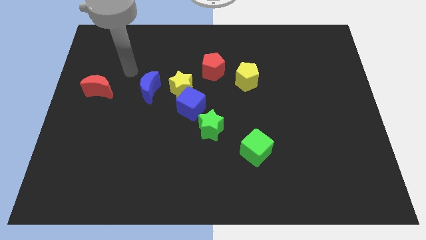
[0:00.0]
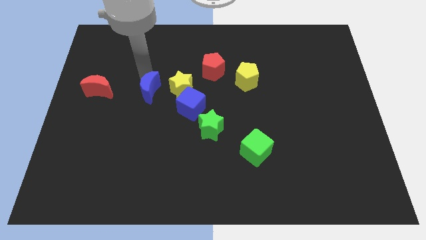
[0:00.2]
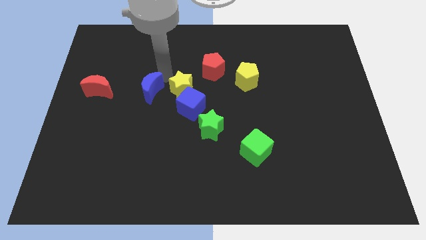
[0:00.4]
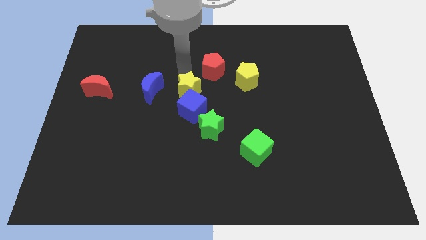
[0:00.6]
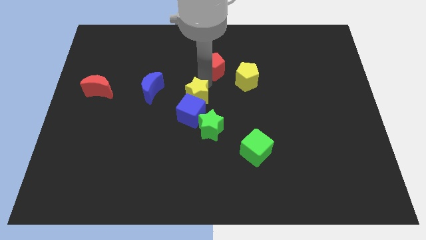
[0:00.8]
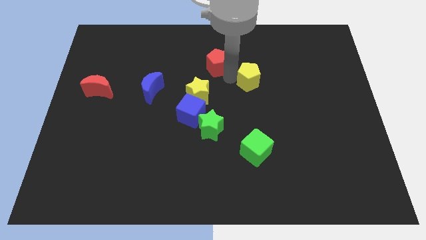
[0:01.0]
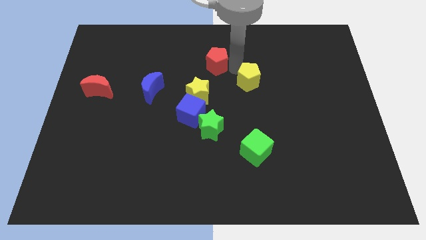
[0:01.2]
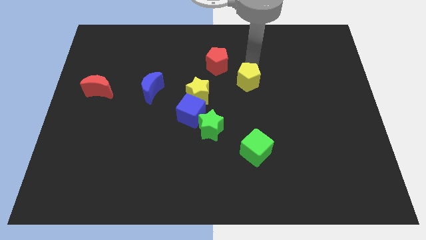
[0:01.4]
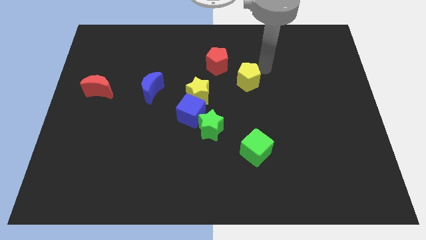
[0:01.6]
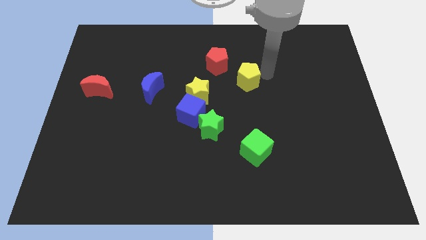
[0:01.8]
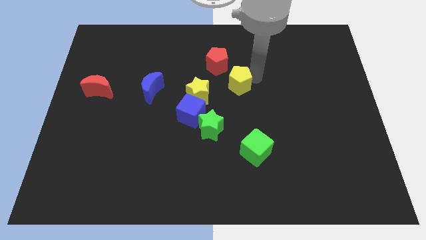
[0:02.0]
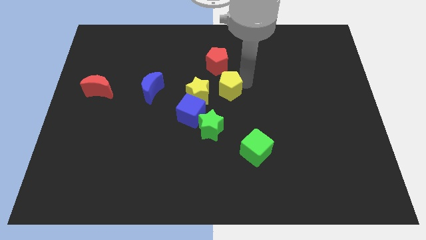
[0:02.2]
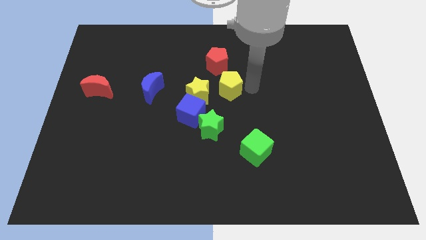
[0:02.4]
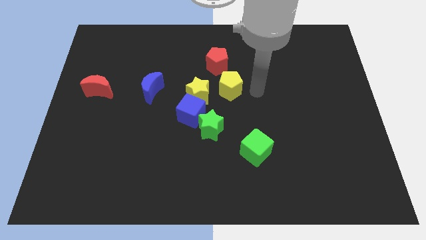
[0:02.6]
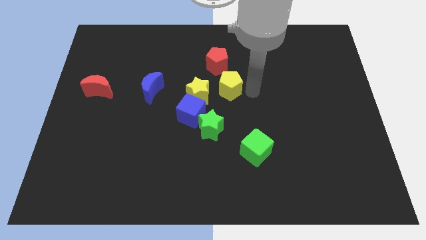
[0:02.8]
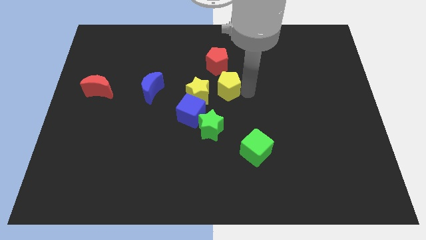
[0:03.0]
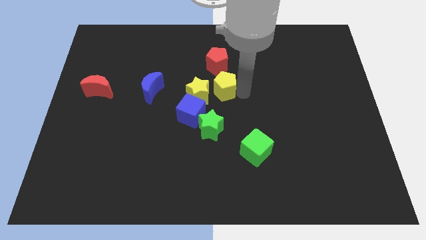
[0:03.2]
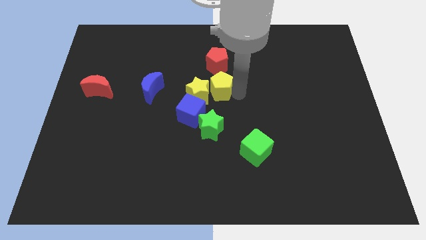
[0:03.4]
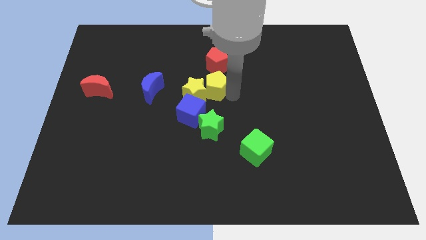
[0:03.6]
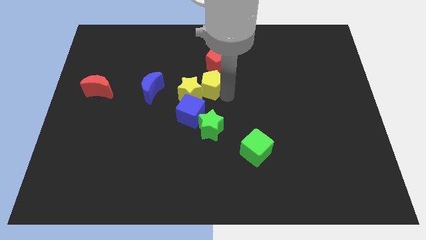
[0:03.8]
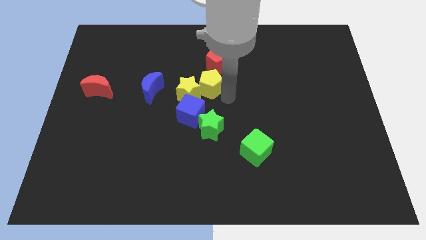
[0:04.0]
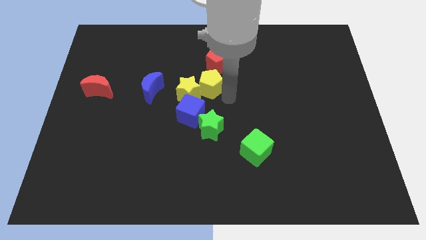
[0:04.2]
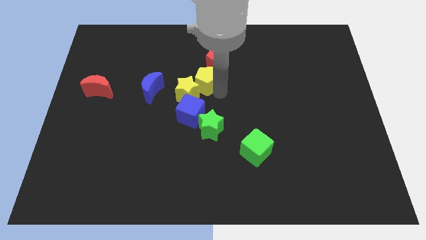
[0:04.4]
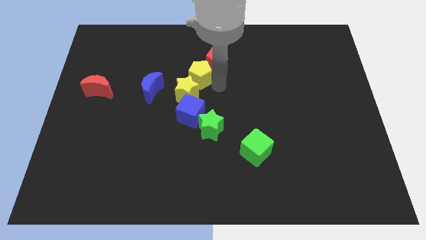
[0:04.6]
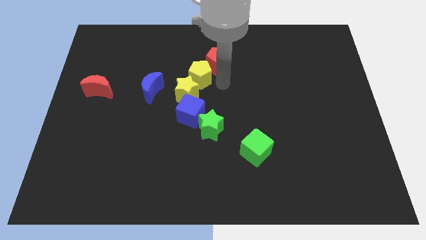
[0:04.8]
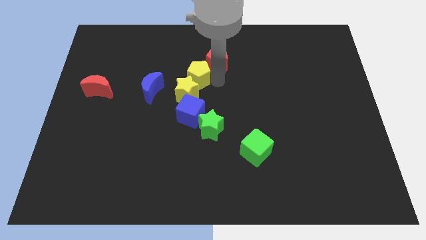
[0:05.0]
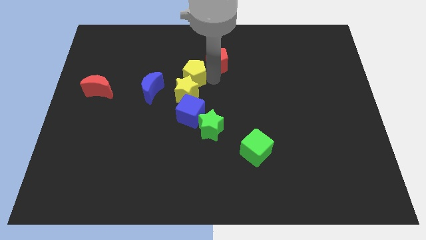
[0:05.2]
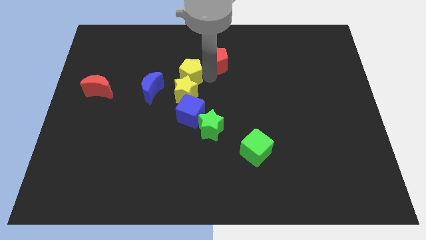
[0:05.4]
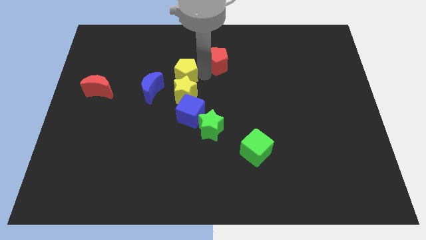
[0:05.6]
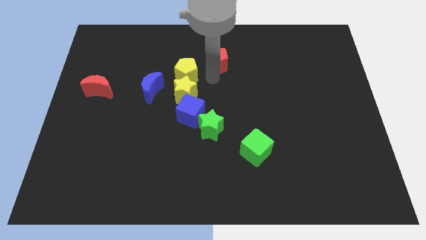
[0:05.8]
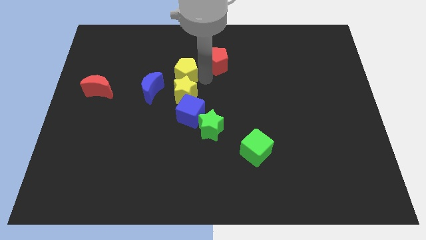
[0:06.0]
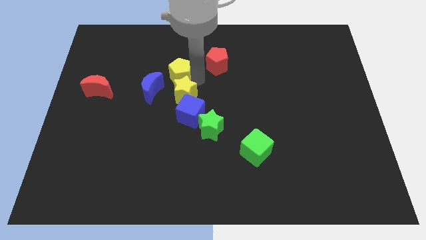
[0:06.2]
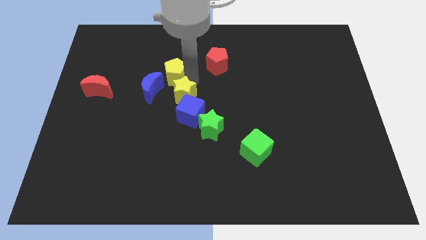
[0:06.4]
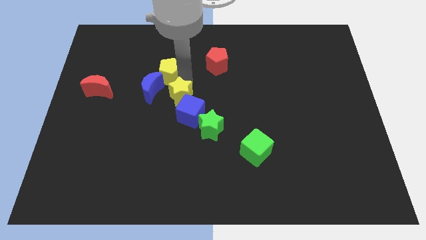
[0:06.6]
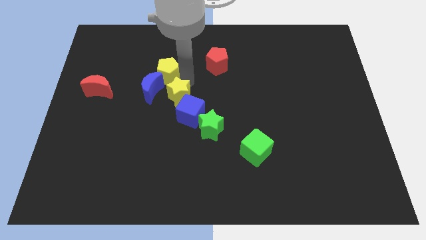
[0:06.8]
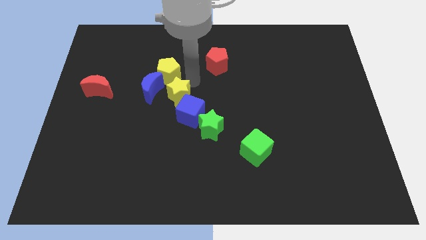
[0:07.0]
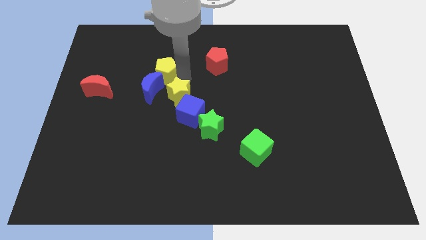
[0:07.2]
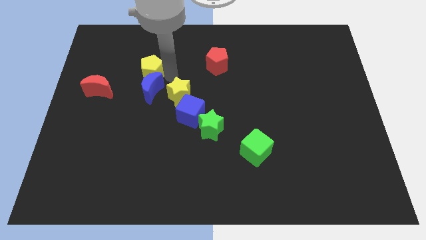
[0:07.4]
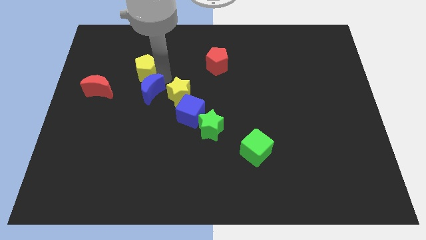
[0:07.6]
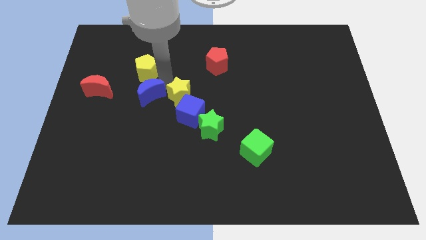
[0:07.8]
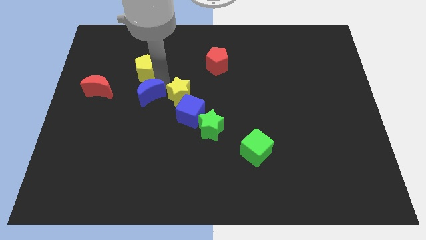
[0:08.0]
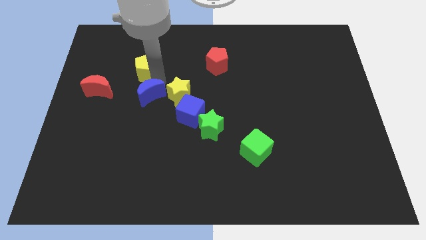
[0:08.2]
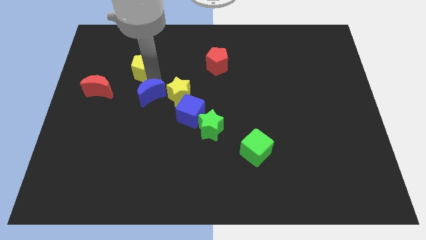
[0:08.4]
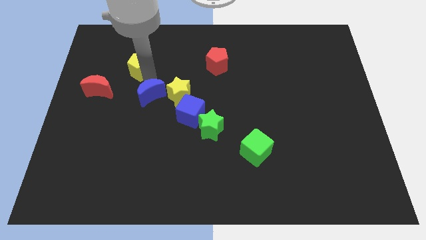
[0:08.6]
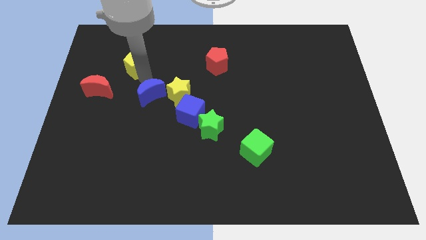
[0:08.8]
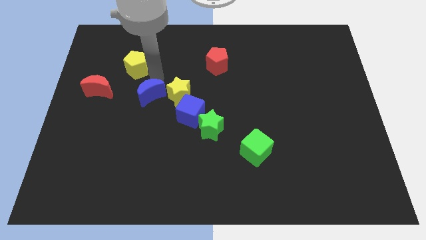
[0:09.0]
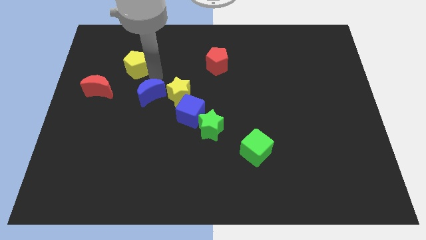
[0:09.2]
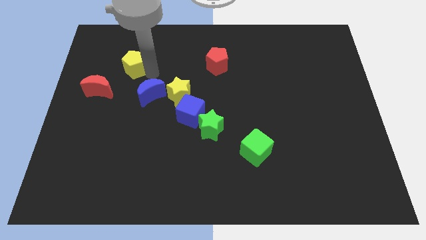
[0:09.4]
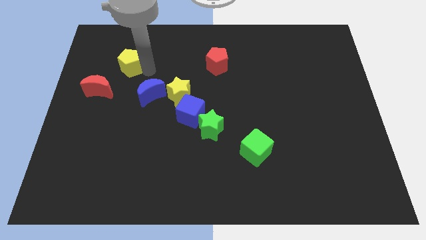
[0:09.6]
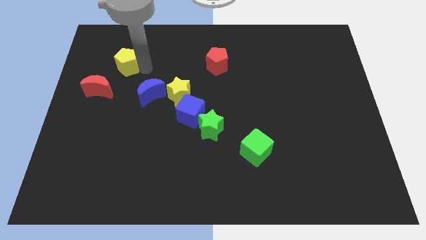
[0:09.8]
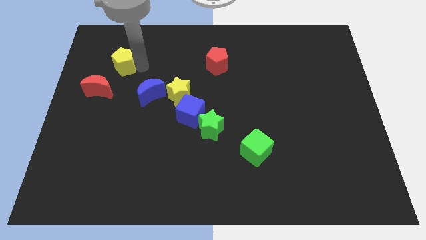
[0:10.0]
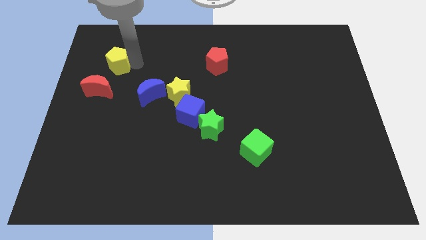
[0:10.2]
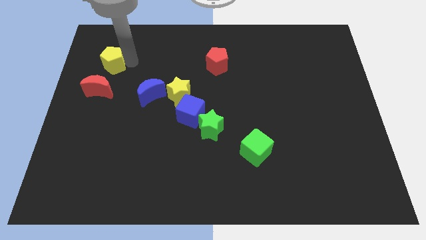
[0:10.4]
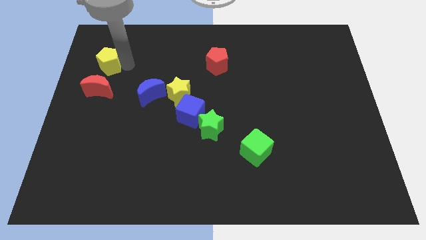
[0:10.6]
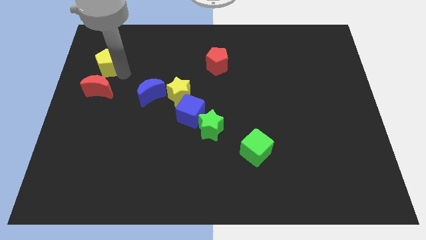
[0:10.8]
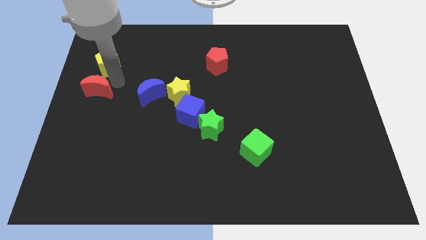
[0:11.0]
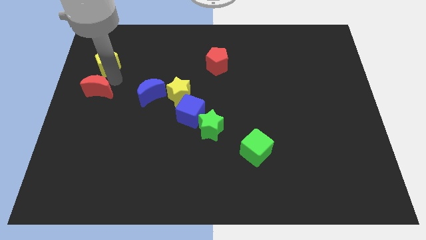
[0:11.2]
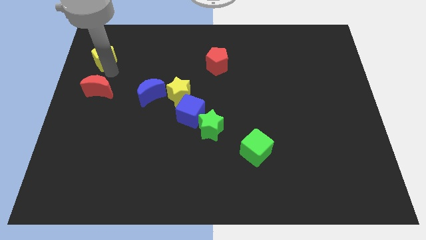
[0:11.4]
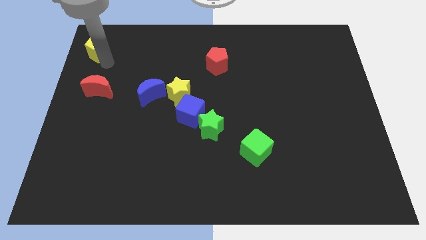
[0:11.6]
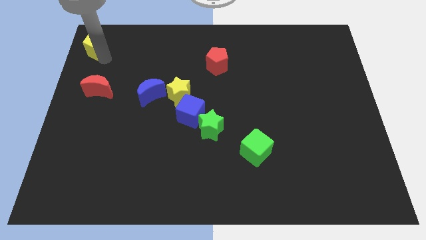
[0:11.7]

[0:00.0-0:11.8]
move the yellow pentagon to the top left of the board
